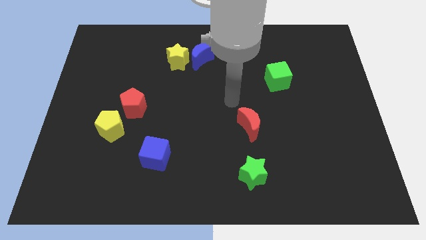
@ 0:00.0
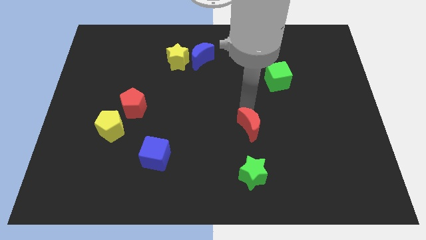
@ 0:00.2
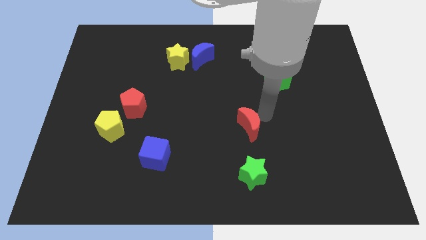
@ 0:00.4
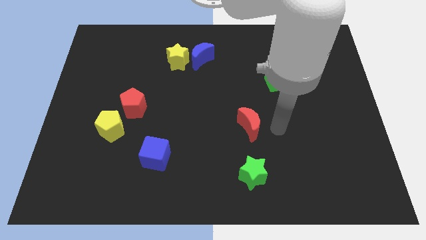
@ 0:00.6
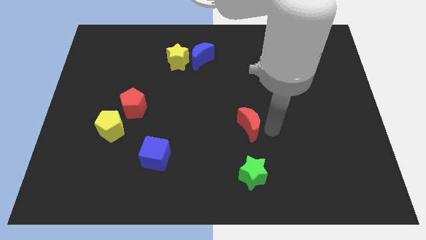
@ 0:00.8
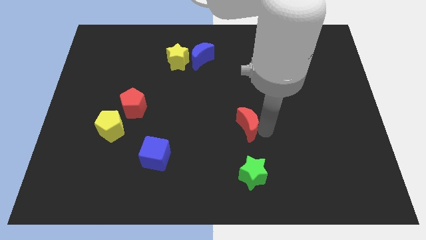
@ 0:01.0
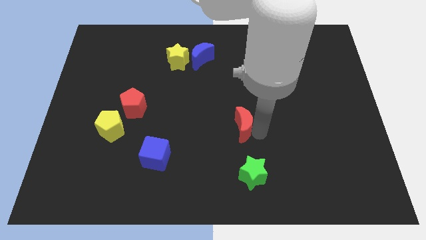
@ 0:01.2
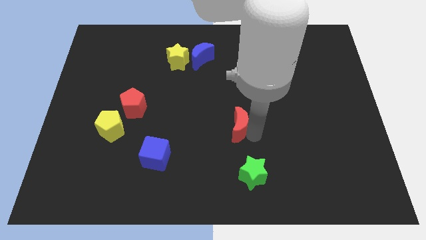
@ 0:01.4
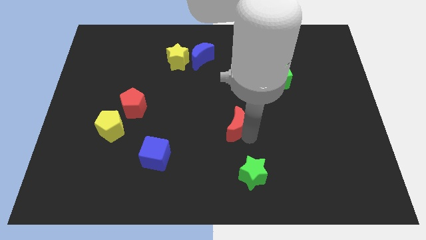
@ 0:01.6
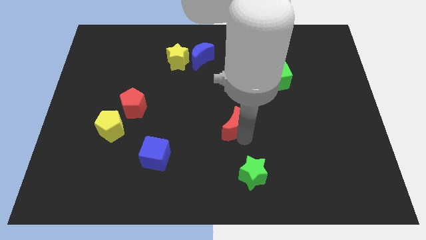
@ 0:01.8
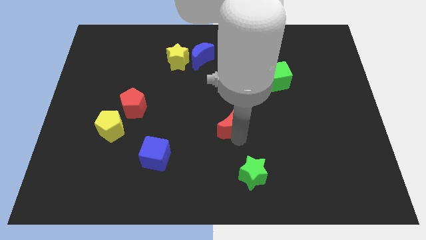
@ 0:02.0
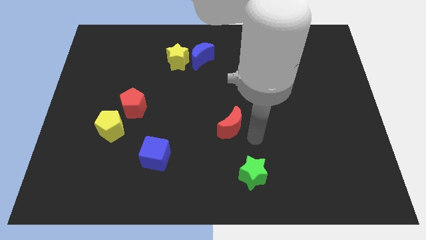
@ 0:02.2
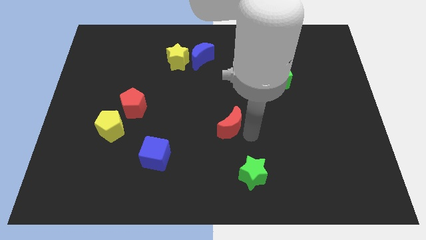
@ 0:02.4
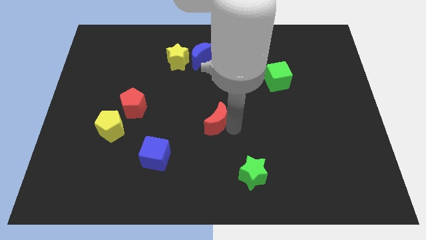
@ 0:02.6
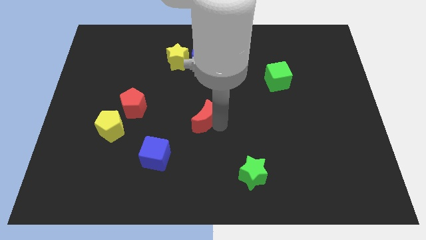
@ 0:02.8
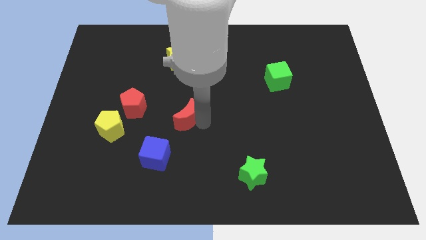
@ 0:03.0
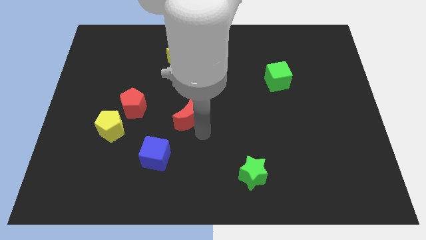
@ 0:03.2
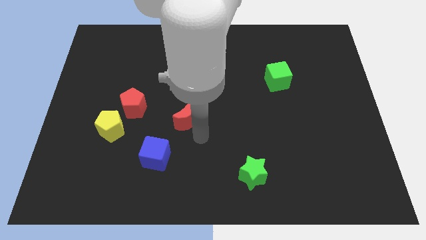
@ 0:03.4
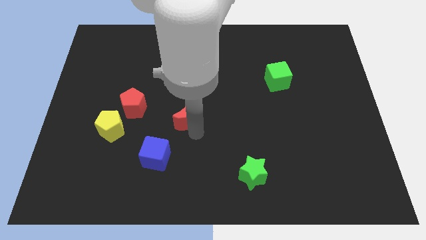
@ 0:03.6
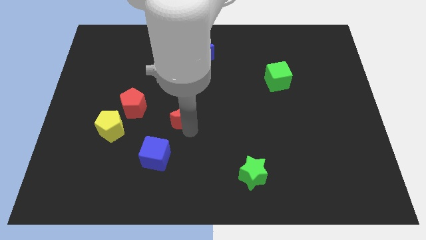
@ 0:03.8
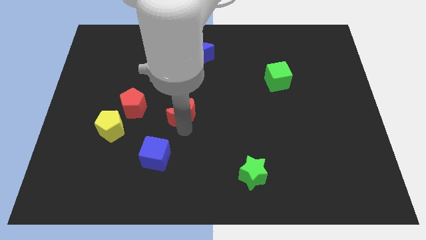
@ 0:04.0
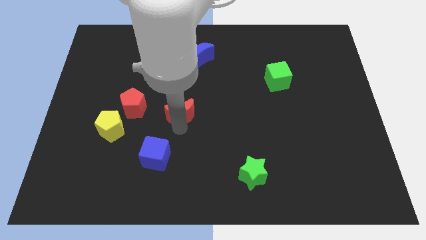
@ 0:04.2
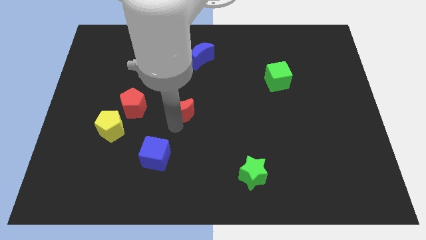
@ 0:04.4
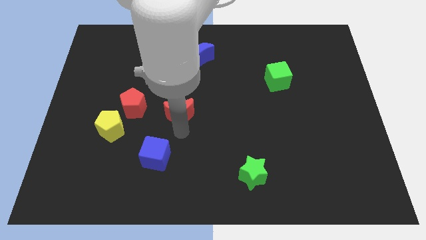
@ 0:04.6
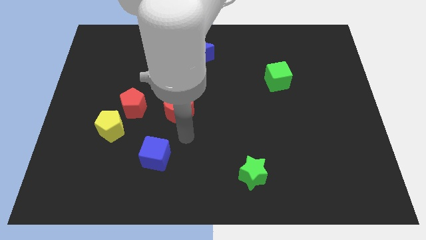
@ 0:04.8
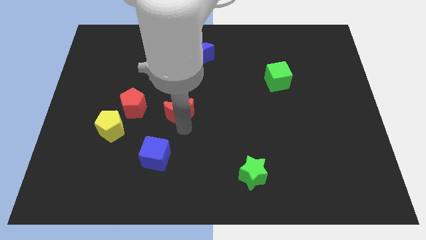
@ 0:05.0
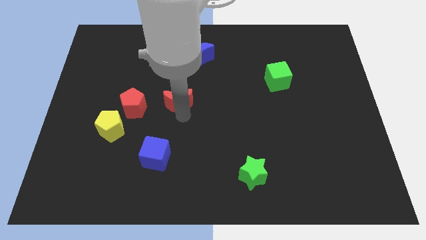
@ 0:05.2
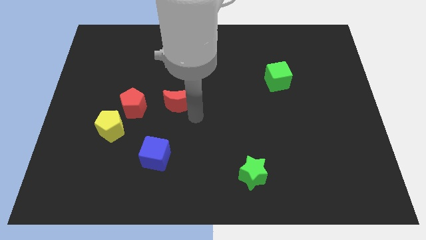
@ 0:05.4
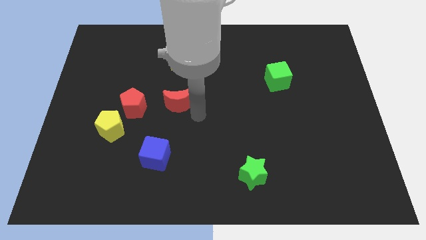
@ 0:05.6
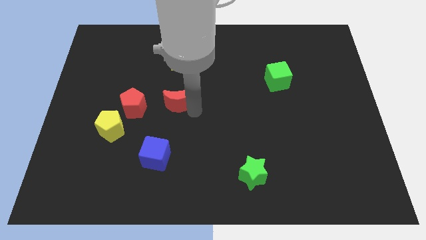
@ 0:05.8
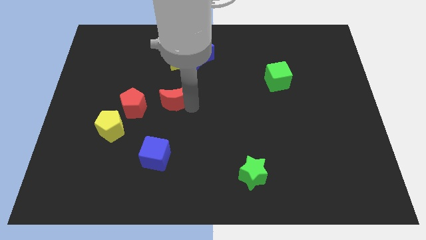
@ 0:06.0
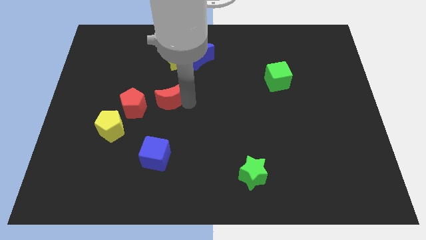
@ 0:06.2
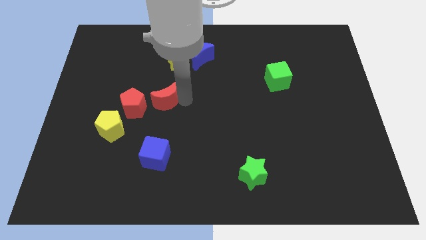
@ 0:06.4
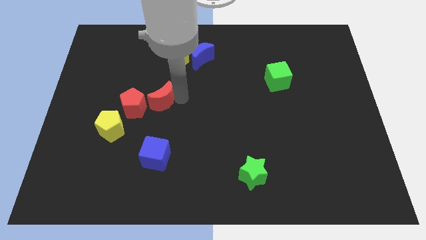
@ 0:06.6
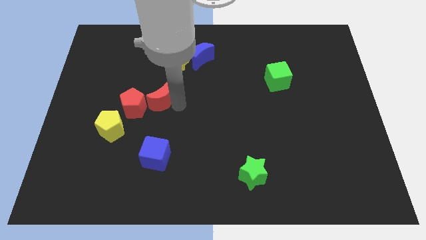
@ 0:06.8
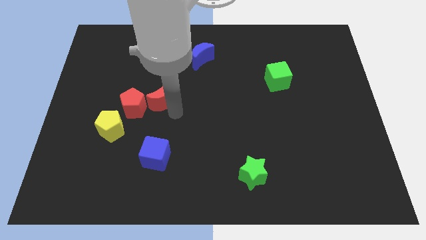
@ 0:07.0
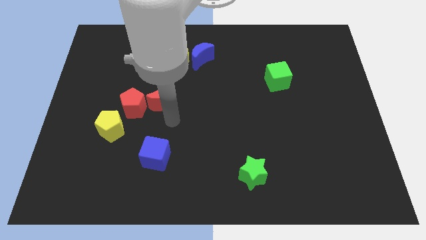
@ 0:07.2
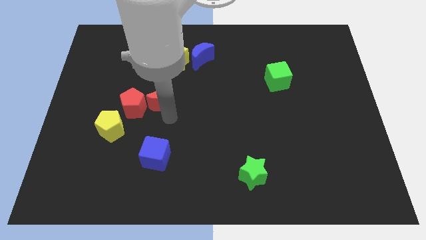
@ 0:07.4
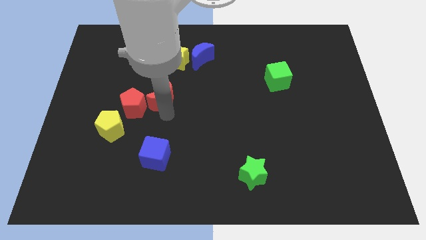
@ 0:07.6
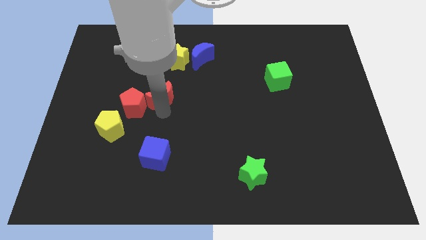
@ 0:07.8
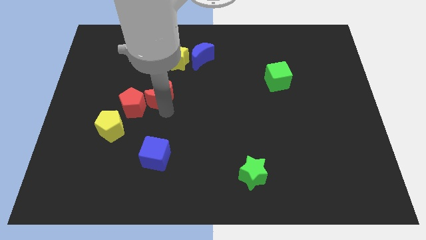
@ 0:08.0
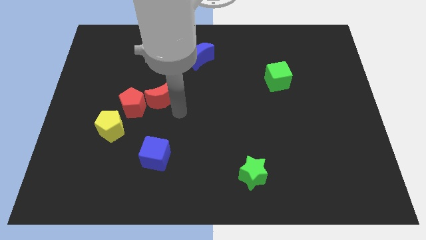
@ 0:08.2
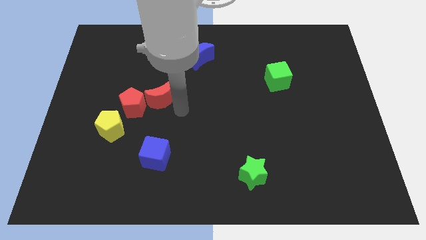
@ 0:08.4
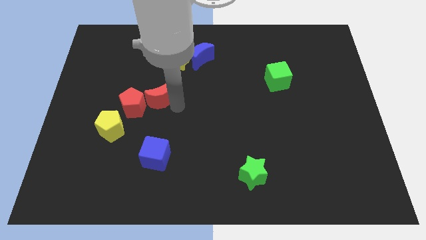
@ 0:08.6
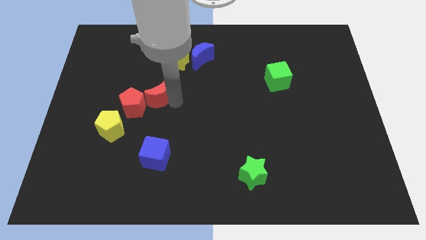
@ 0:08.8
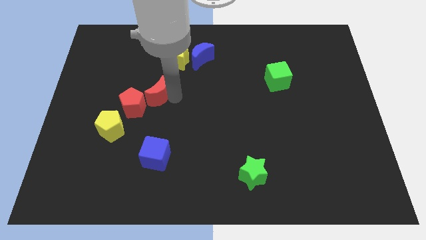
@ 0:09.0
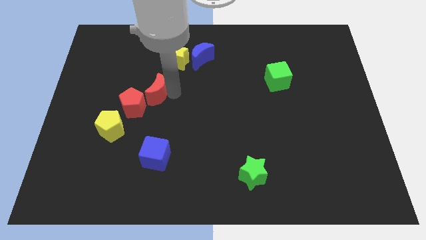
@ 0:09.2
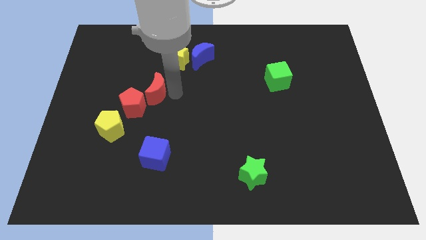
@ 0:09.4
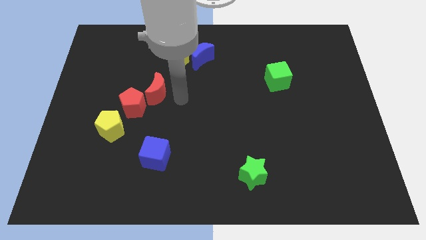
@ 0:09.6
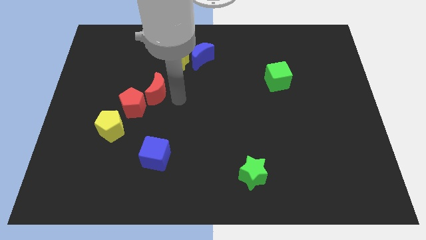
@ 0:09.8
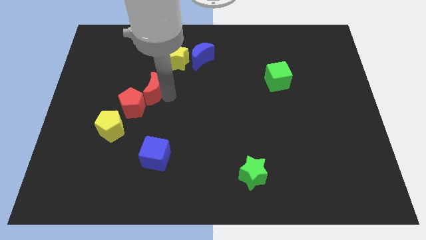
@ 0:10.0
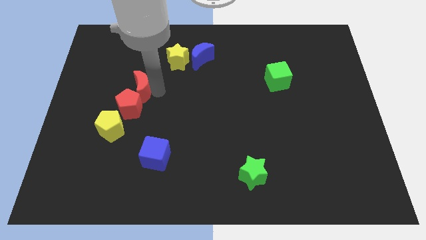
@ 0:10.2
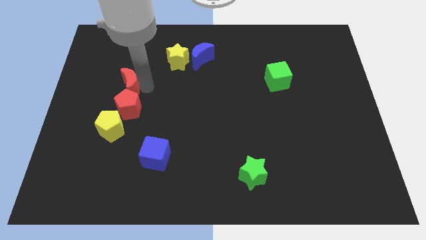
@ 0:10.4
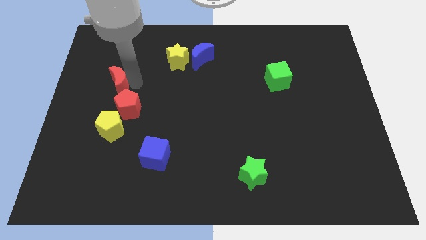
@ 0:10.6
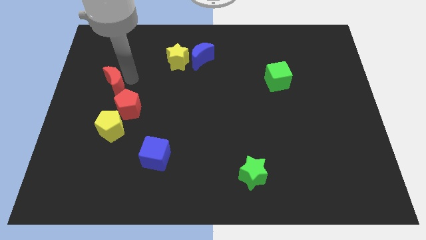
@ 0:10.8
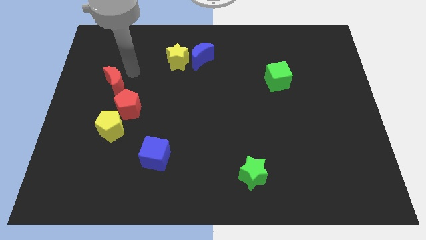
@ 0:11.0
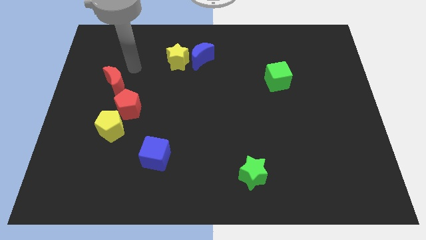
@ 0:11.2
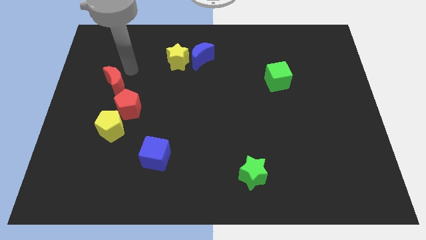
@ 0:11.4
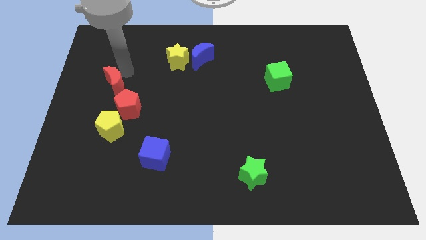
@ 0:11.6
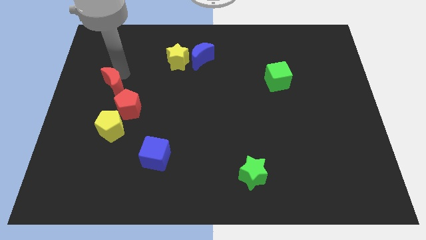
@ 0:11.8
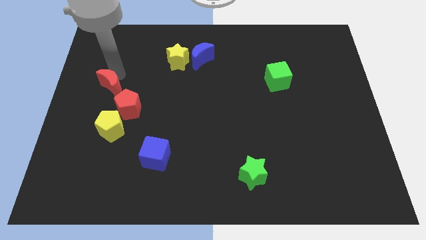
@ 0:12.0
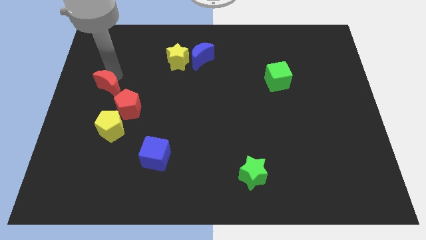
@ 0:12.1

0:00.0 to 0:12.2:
move the red moon to the left side
